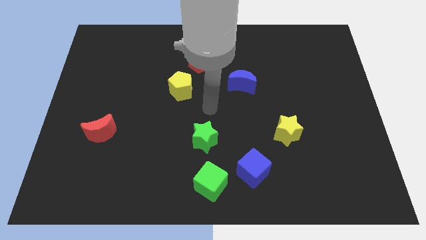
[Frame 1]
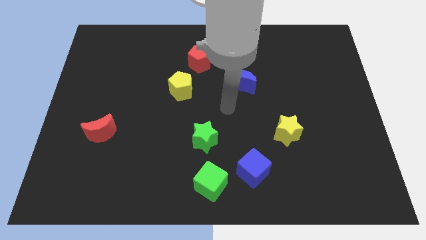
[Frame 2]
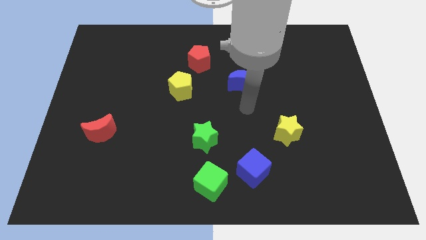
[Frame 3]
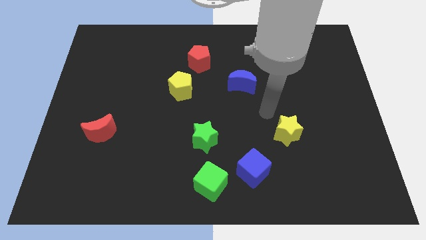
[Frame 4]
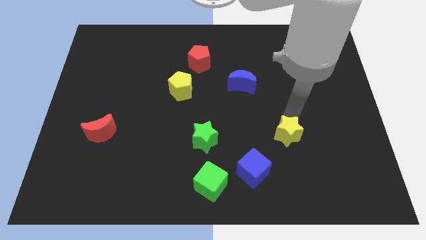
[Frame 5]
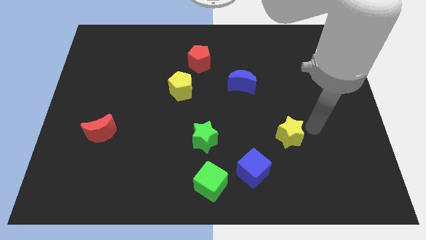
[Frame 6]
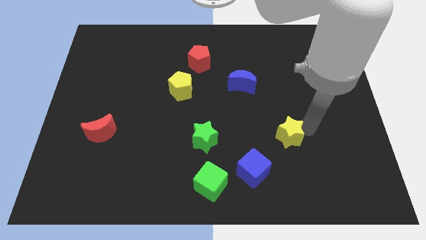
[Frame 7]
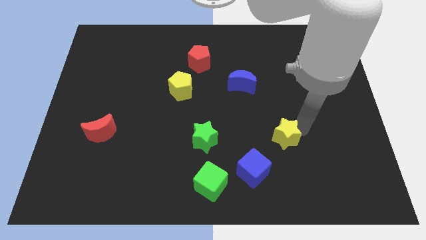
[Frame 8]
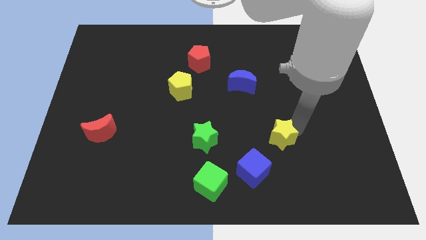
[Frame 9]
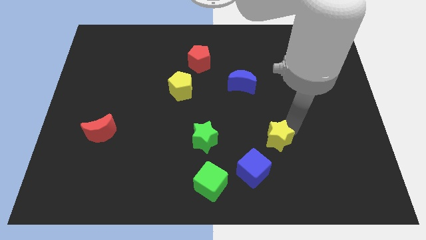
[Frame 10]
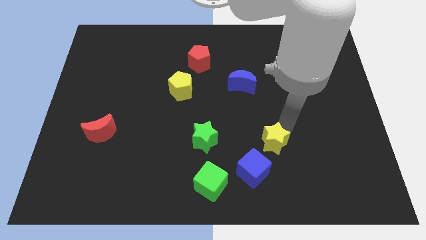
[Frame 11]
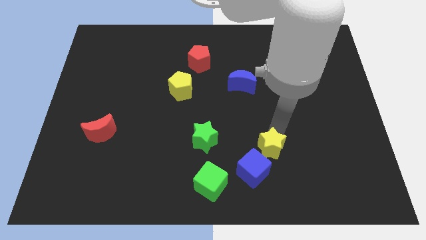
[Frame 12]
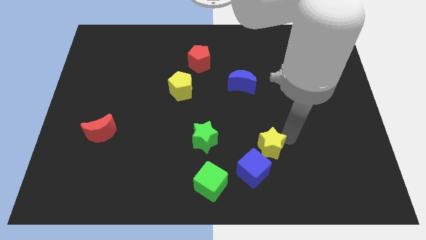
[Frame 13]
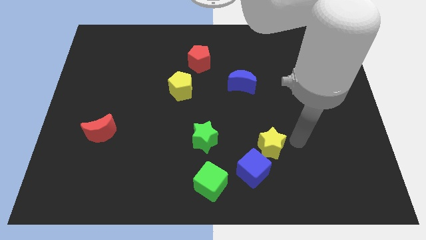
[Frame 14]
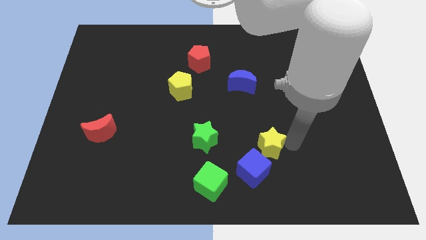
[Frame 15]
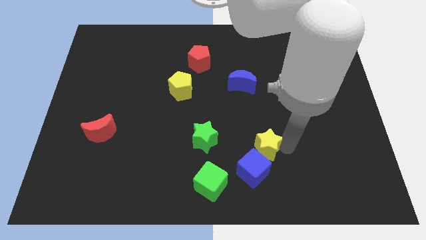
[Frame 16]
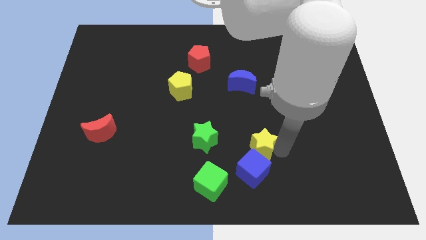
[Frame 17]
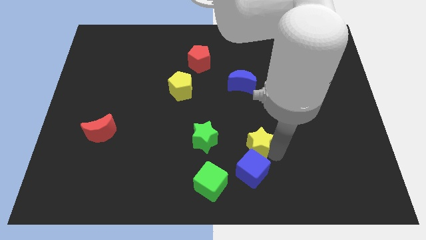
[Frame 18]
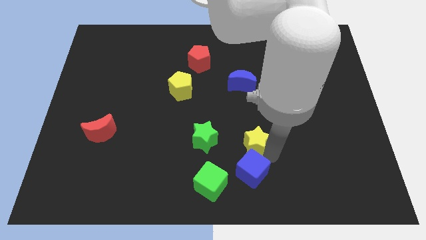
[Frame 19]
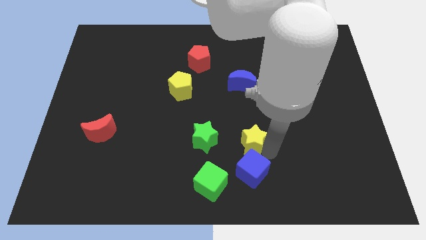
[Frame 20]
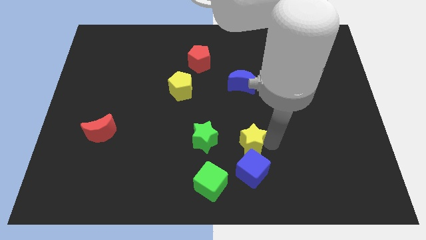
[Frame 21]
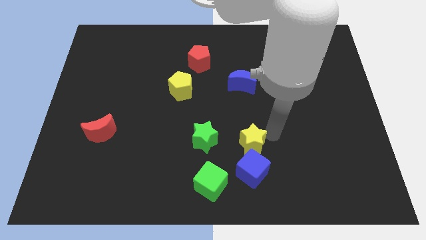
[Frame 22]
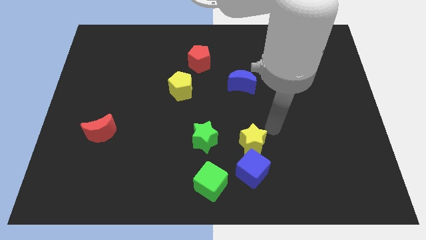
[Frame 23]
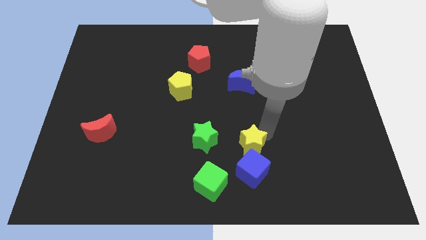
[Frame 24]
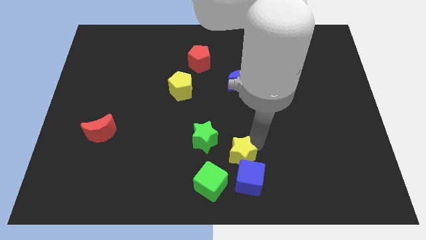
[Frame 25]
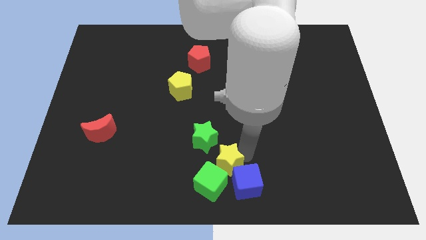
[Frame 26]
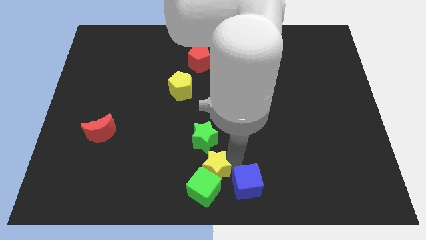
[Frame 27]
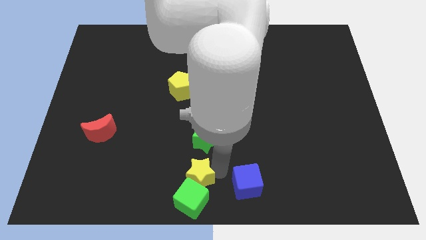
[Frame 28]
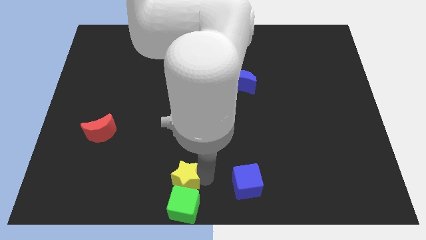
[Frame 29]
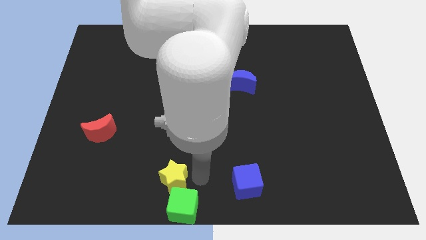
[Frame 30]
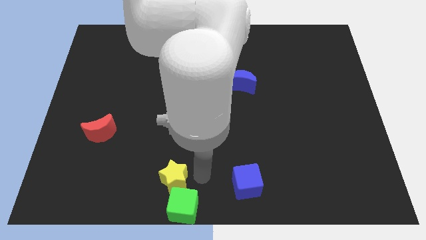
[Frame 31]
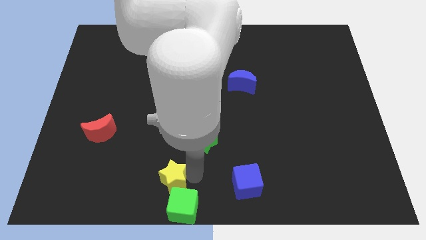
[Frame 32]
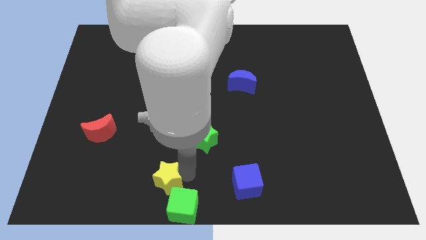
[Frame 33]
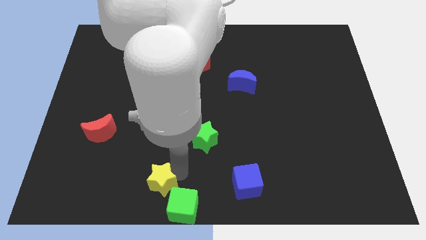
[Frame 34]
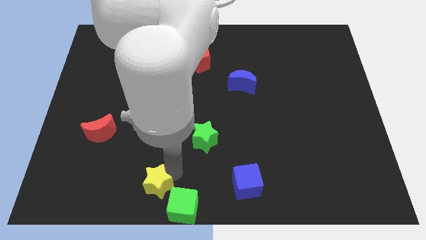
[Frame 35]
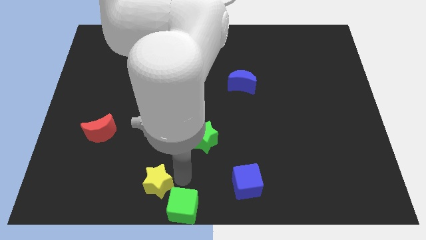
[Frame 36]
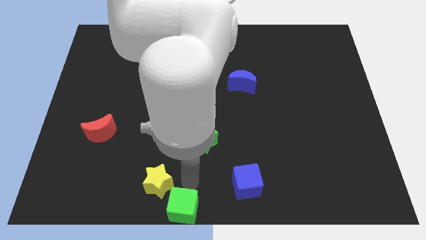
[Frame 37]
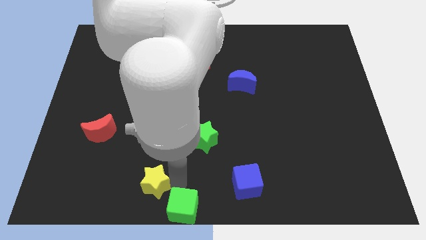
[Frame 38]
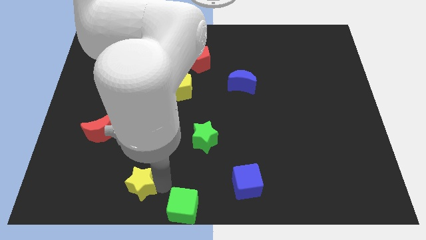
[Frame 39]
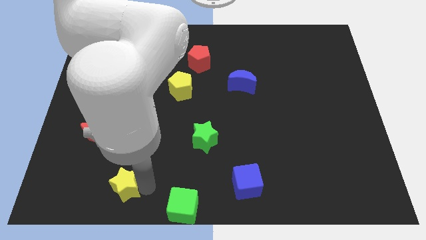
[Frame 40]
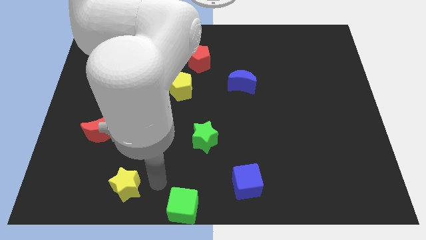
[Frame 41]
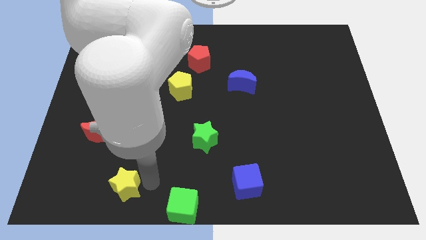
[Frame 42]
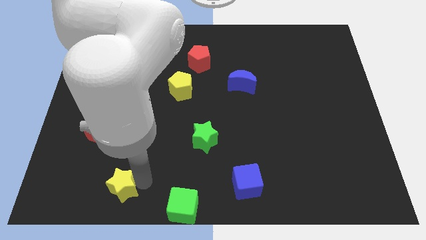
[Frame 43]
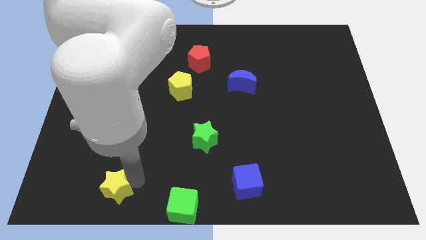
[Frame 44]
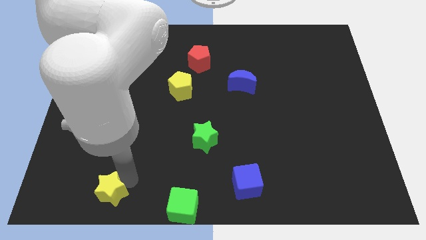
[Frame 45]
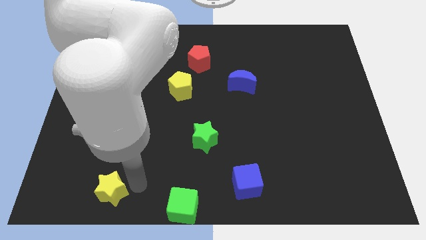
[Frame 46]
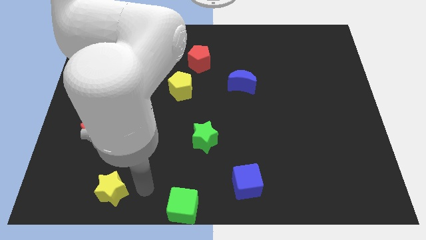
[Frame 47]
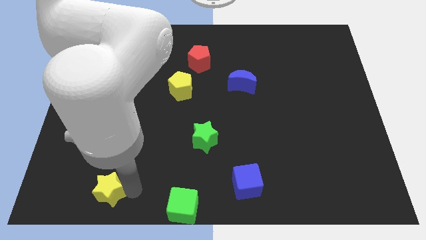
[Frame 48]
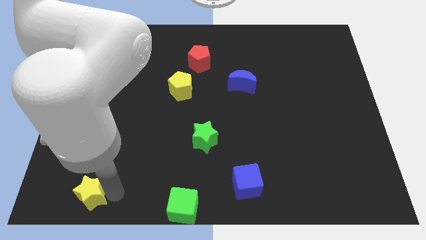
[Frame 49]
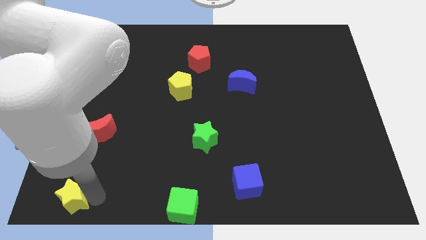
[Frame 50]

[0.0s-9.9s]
slide the yellow star to the bottom left of the board

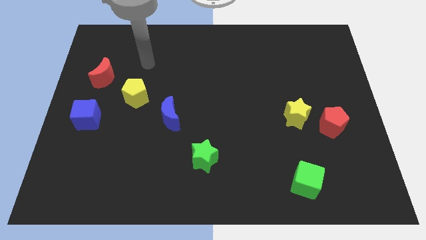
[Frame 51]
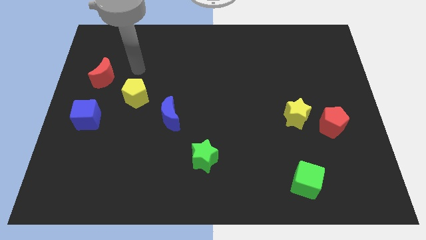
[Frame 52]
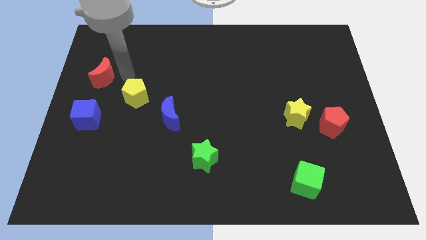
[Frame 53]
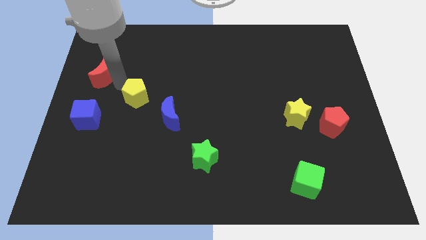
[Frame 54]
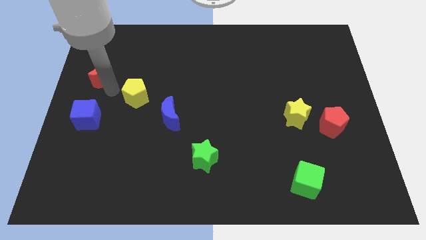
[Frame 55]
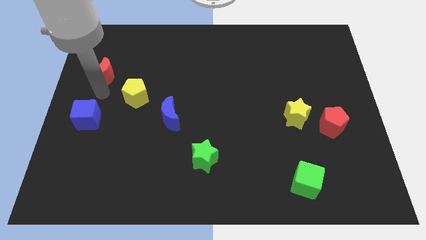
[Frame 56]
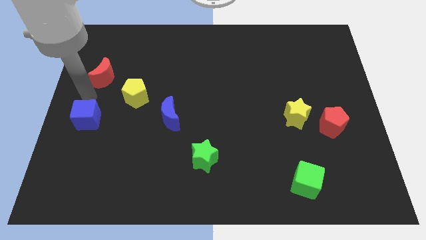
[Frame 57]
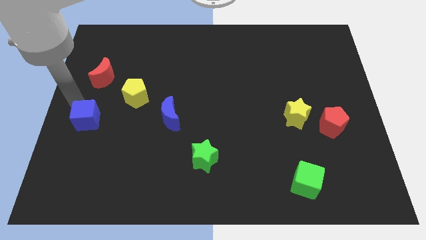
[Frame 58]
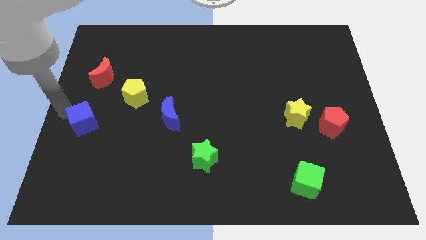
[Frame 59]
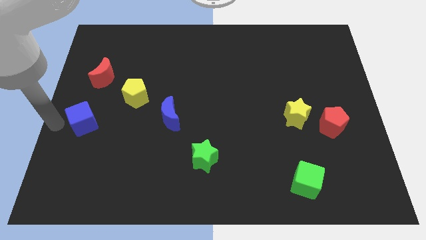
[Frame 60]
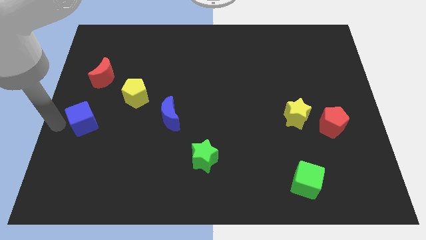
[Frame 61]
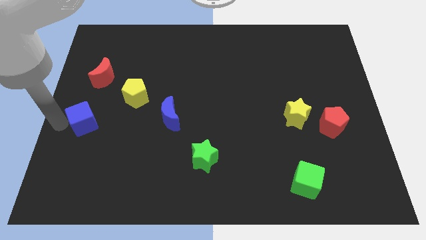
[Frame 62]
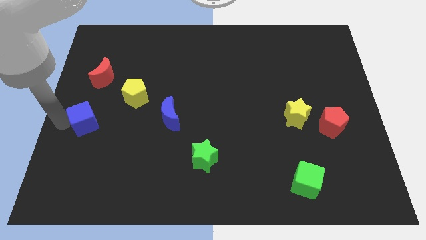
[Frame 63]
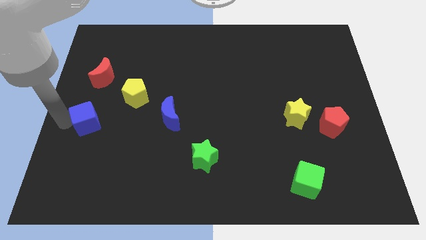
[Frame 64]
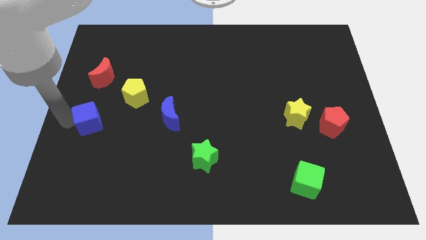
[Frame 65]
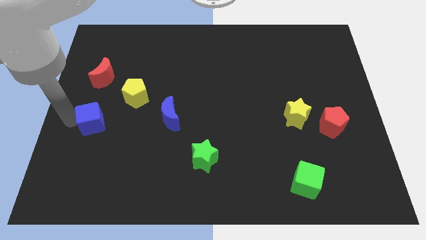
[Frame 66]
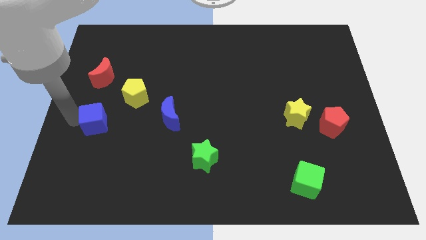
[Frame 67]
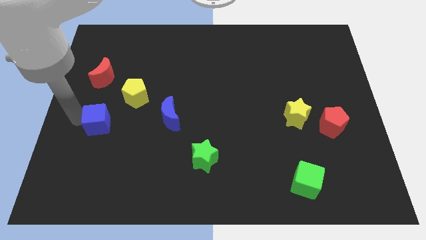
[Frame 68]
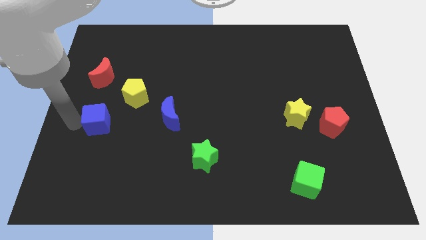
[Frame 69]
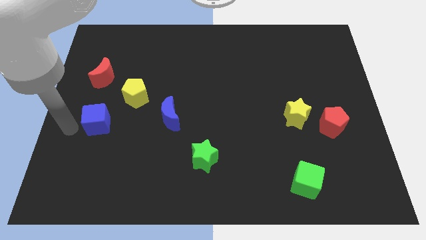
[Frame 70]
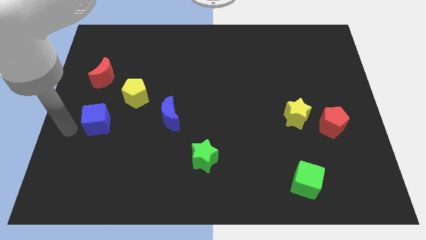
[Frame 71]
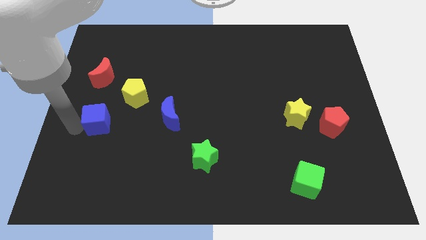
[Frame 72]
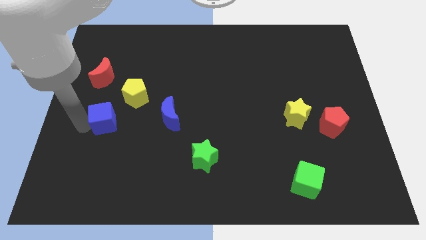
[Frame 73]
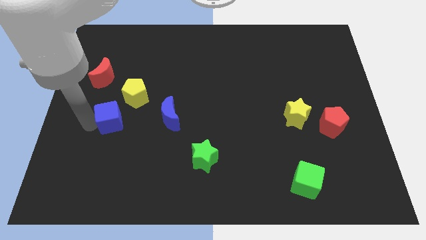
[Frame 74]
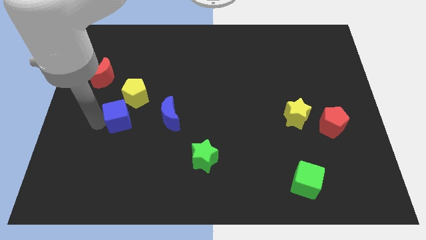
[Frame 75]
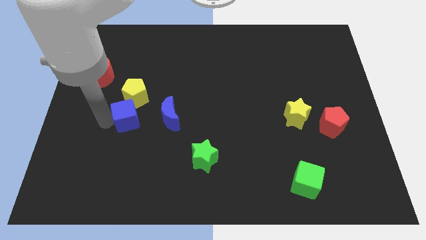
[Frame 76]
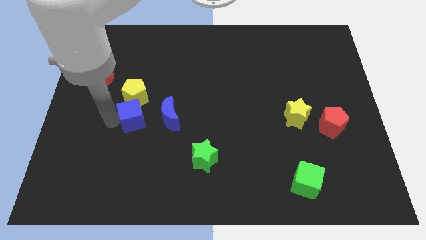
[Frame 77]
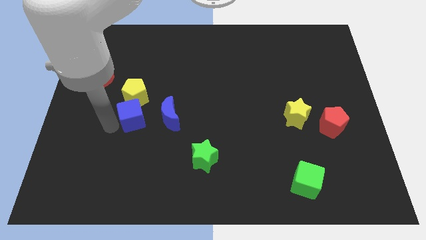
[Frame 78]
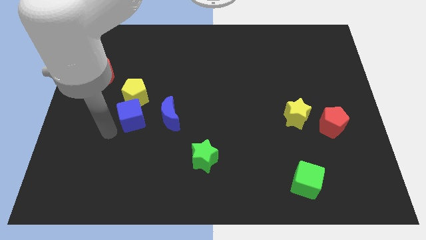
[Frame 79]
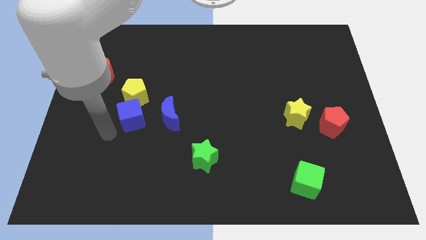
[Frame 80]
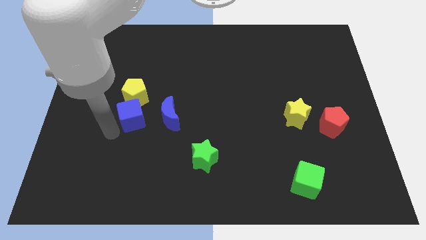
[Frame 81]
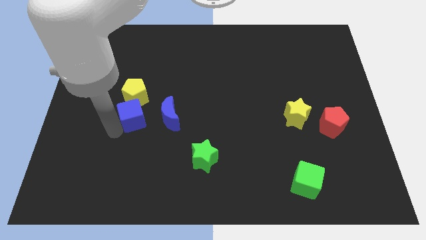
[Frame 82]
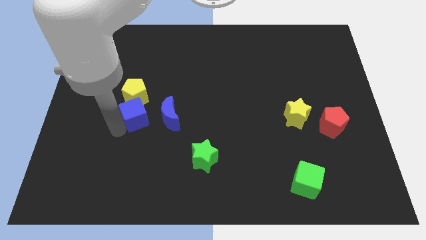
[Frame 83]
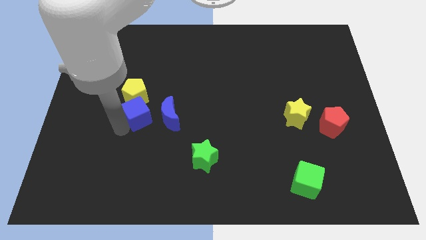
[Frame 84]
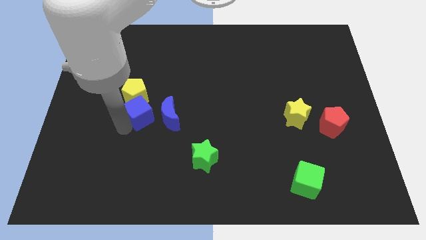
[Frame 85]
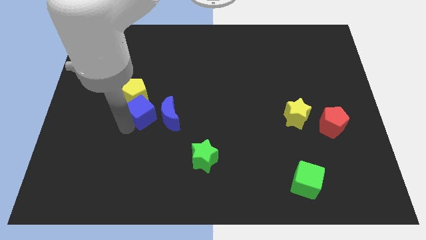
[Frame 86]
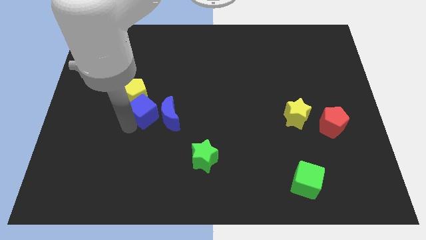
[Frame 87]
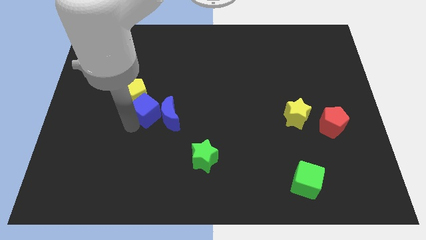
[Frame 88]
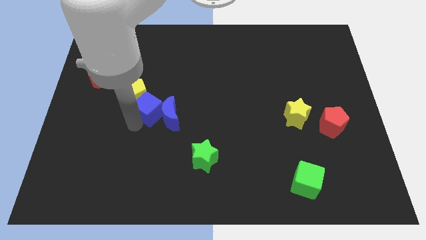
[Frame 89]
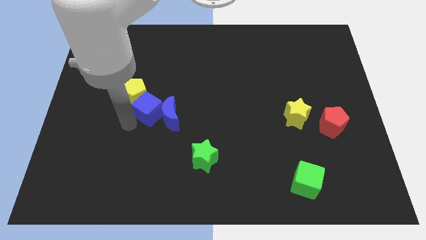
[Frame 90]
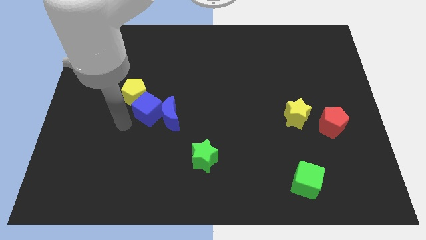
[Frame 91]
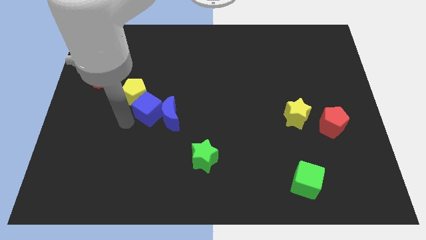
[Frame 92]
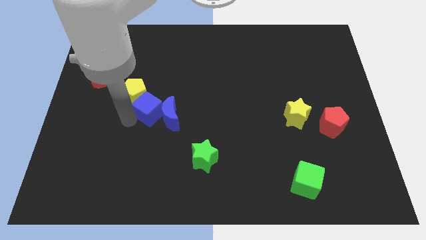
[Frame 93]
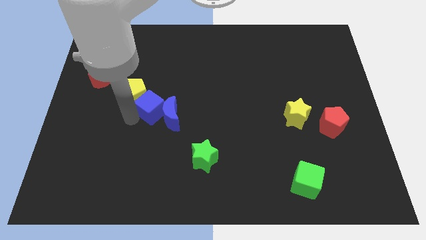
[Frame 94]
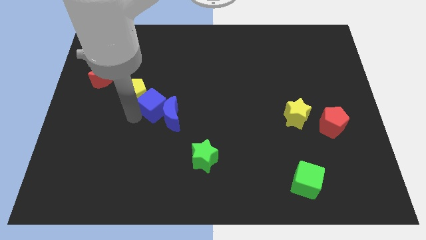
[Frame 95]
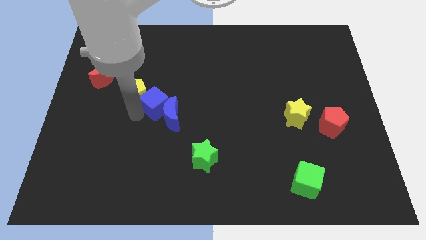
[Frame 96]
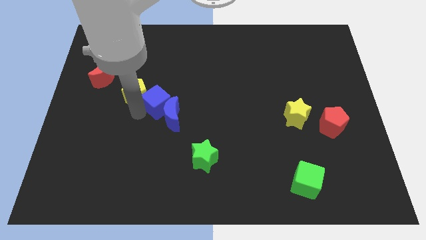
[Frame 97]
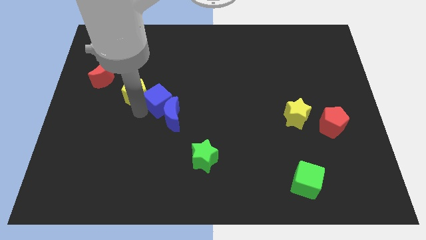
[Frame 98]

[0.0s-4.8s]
push the blue cube to the middle
